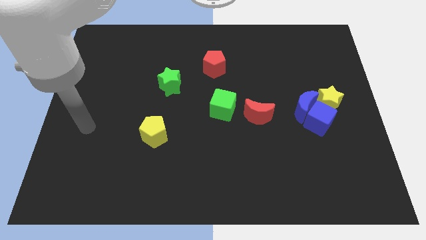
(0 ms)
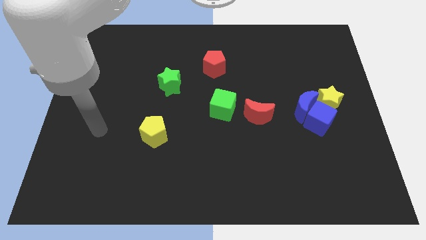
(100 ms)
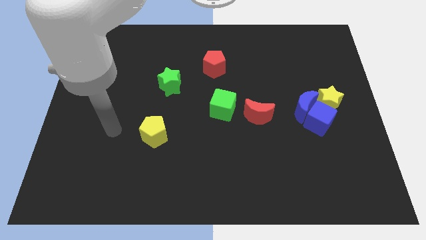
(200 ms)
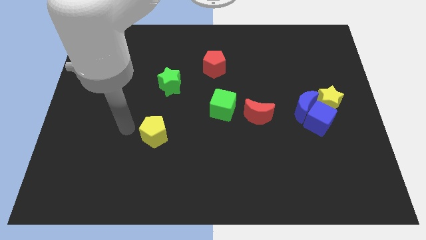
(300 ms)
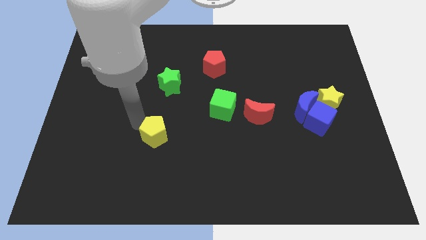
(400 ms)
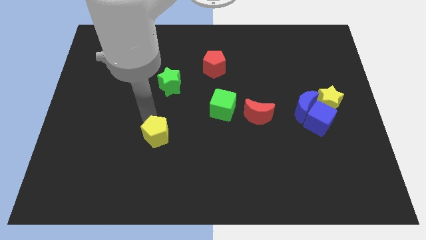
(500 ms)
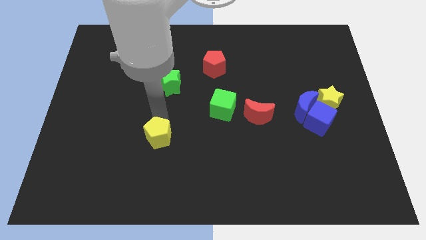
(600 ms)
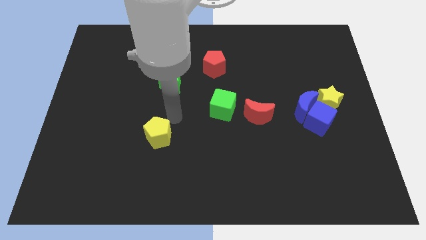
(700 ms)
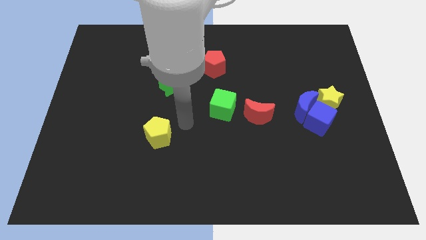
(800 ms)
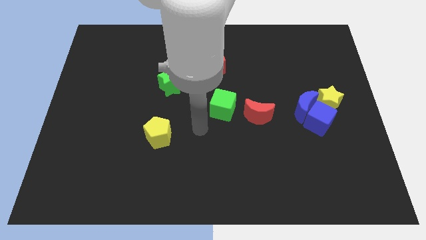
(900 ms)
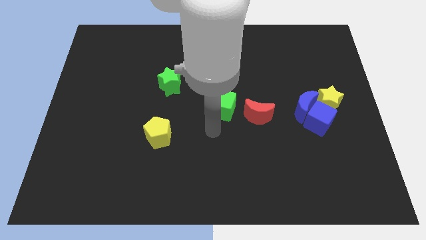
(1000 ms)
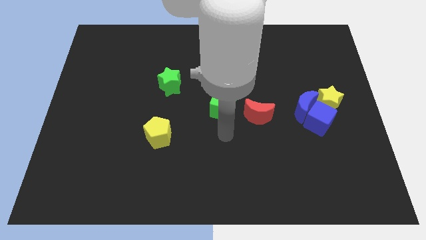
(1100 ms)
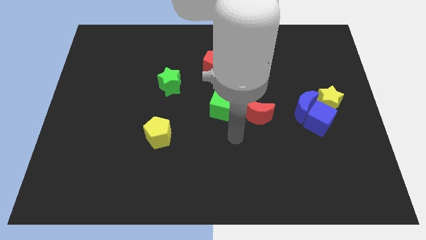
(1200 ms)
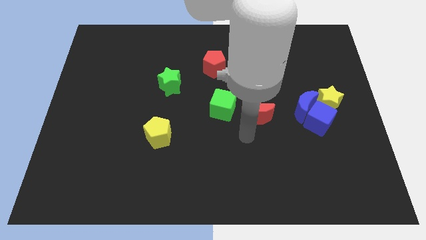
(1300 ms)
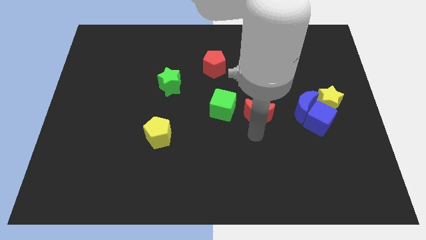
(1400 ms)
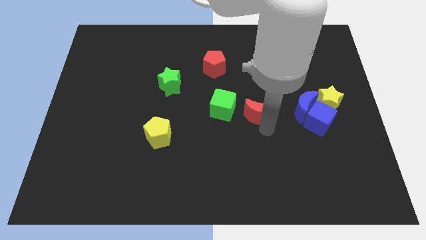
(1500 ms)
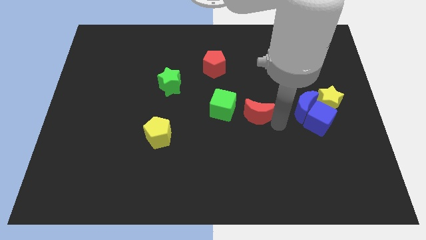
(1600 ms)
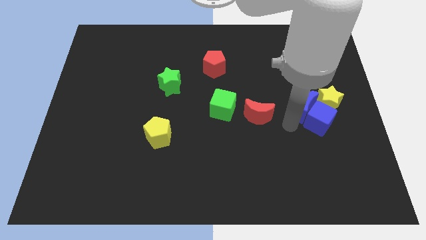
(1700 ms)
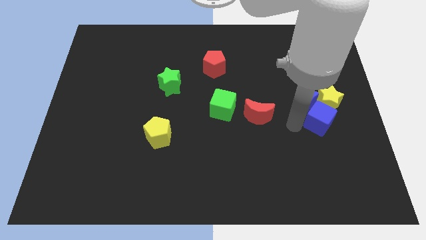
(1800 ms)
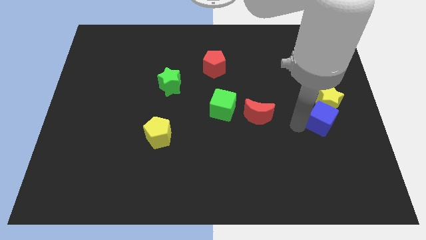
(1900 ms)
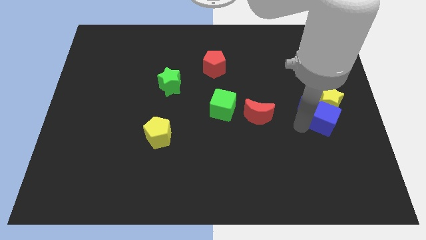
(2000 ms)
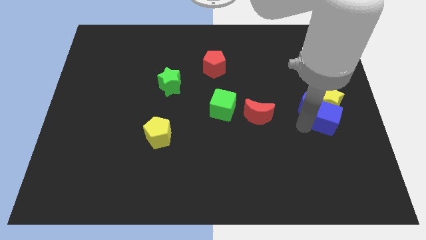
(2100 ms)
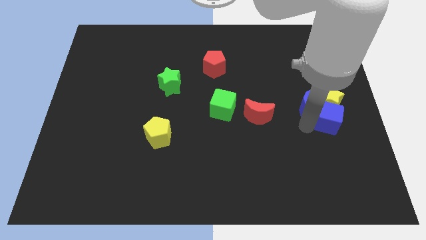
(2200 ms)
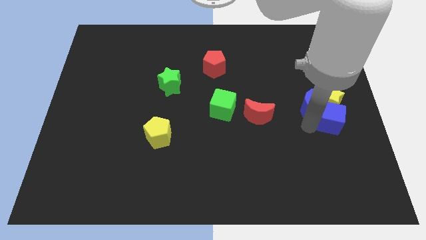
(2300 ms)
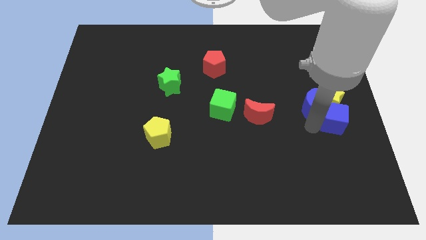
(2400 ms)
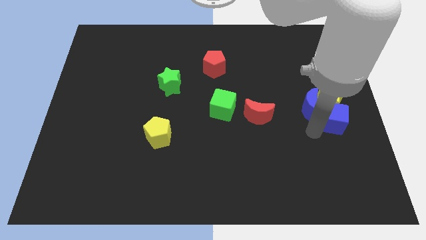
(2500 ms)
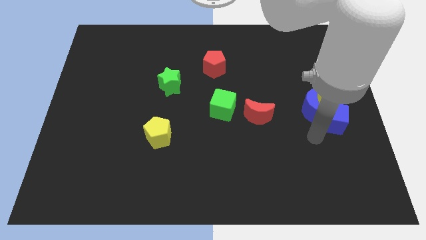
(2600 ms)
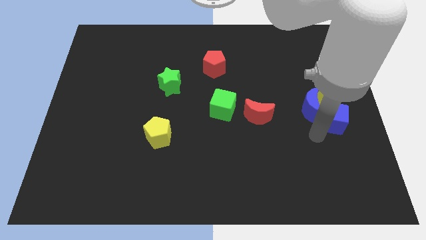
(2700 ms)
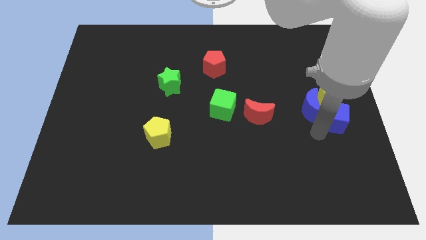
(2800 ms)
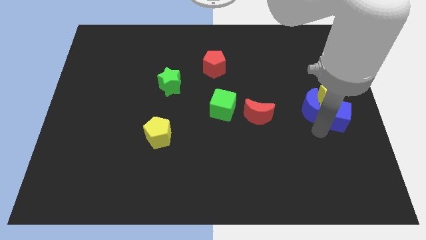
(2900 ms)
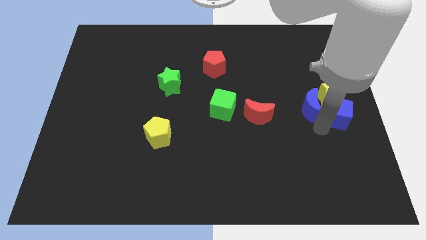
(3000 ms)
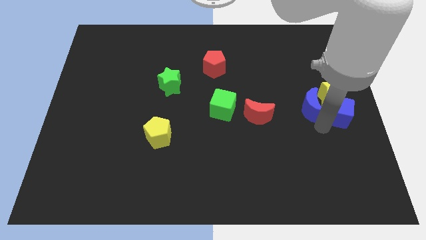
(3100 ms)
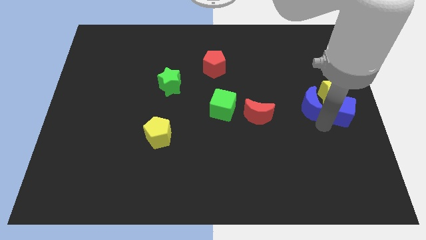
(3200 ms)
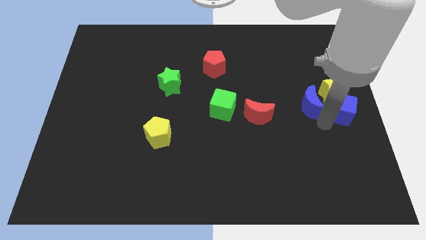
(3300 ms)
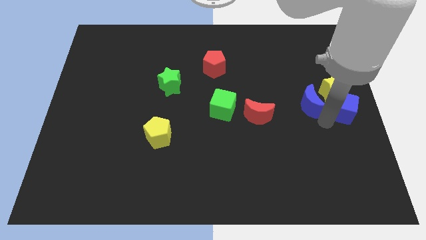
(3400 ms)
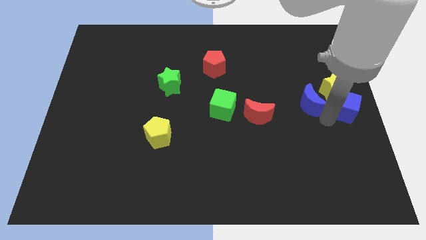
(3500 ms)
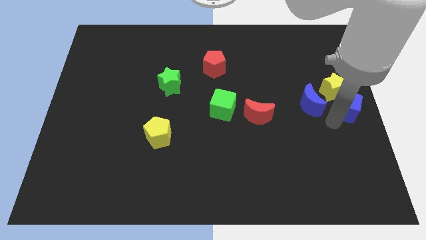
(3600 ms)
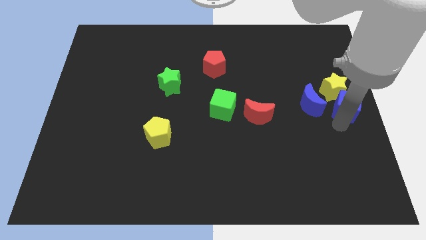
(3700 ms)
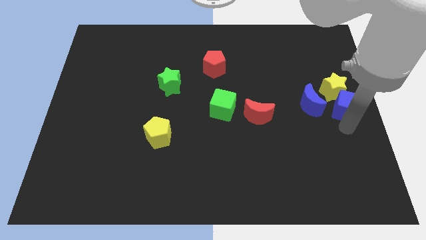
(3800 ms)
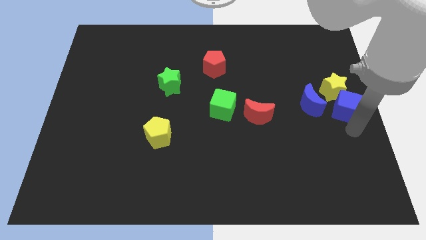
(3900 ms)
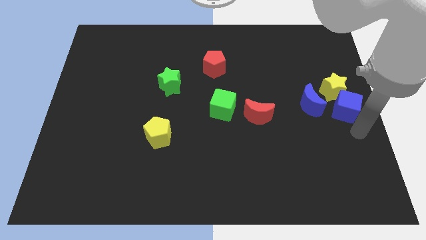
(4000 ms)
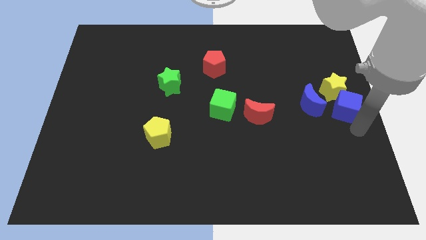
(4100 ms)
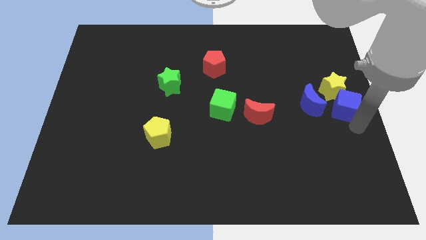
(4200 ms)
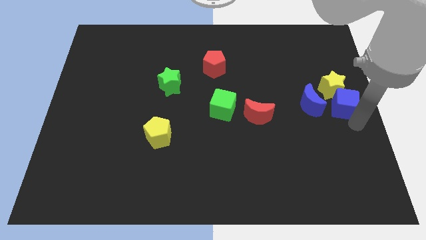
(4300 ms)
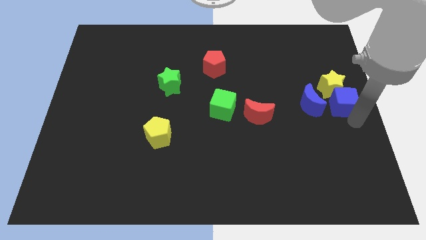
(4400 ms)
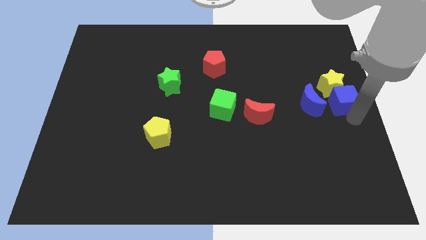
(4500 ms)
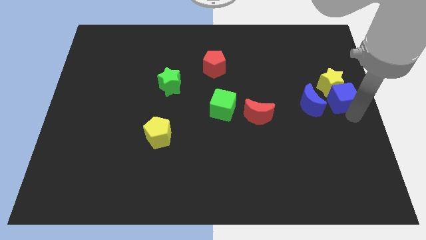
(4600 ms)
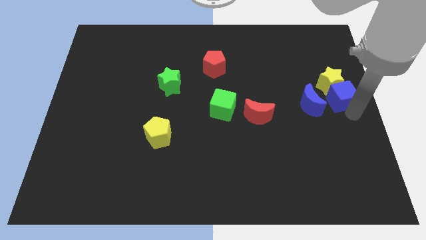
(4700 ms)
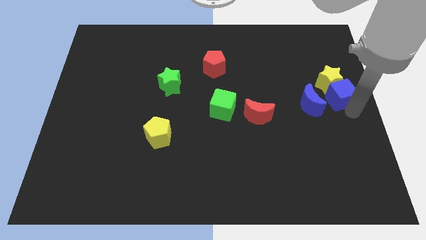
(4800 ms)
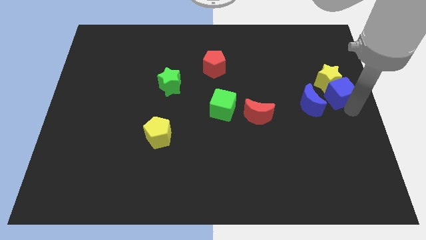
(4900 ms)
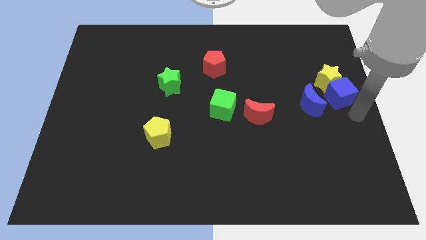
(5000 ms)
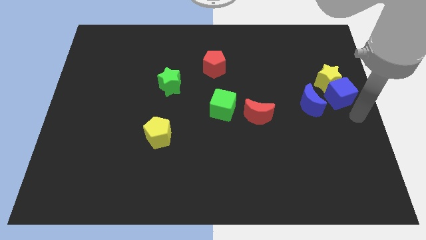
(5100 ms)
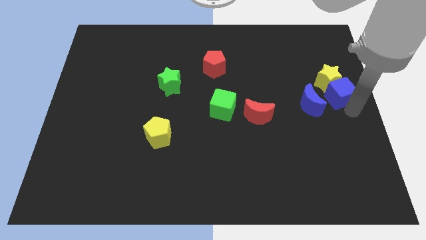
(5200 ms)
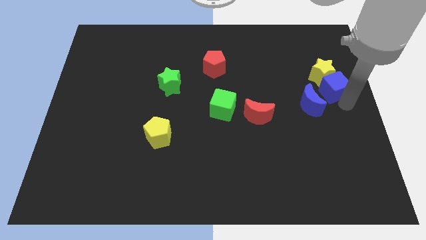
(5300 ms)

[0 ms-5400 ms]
push the blue cube up a bit

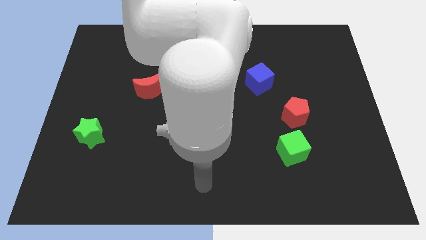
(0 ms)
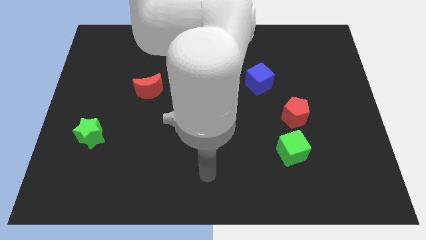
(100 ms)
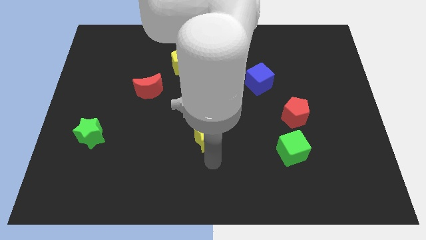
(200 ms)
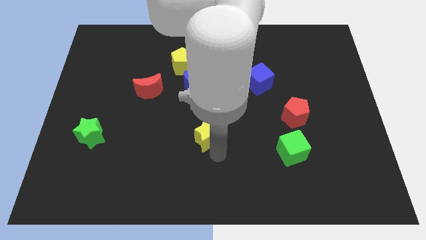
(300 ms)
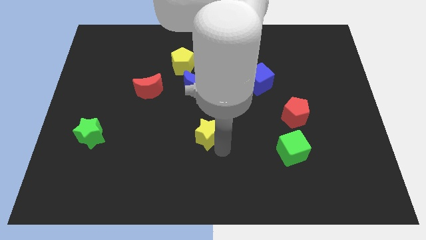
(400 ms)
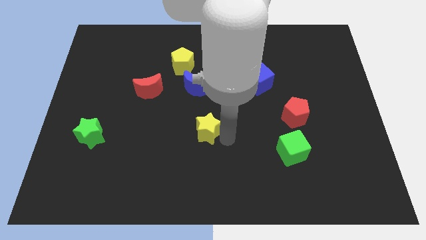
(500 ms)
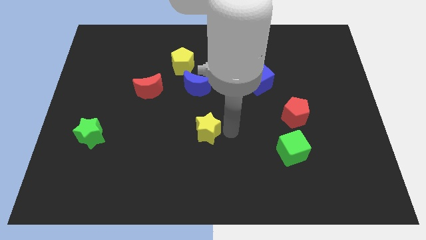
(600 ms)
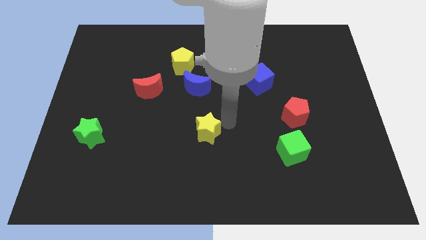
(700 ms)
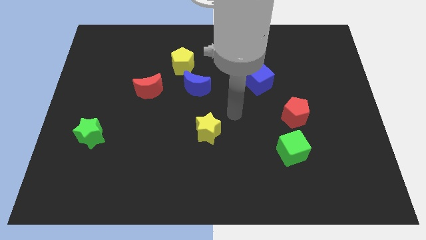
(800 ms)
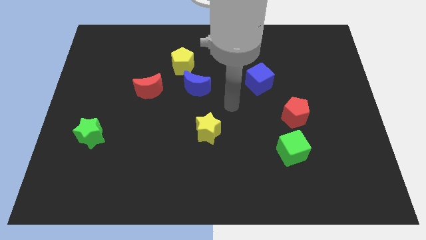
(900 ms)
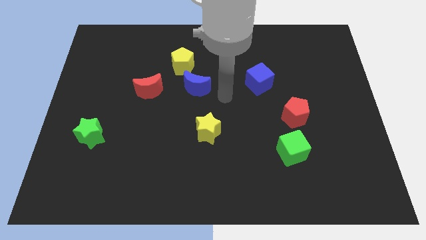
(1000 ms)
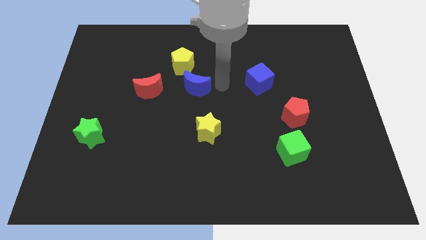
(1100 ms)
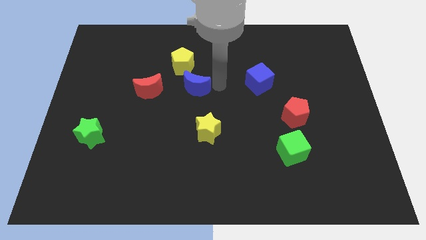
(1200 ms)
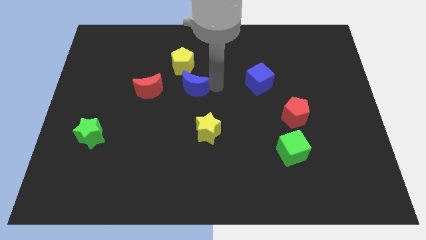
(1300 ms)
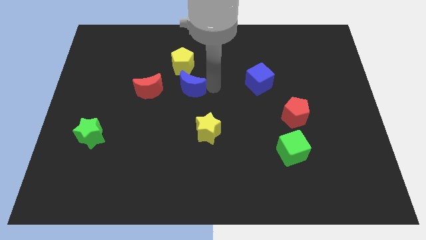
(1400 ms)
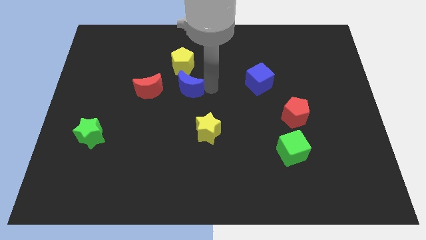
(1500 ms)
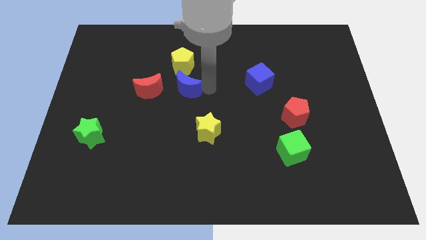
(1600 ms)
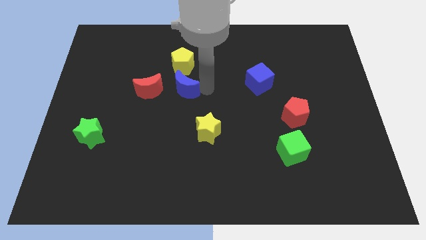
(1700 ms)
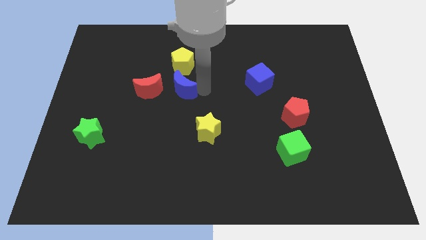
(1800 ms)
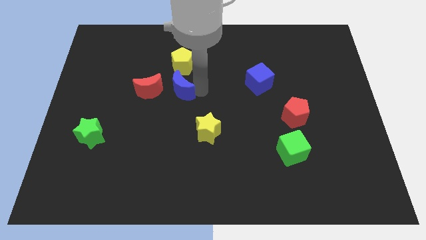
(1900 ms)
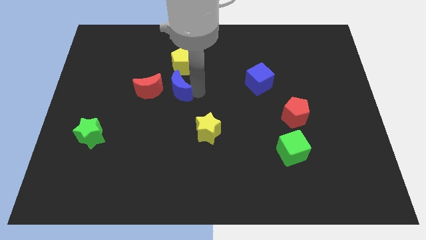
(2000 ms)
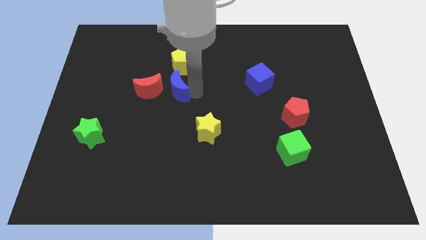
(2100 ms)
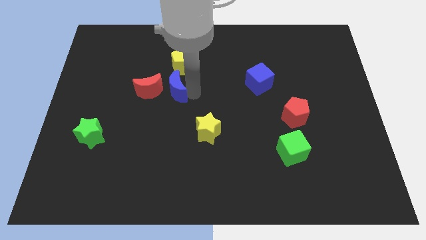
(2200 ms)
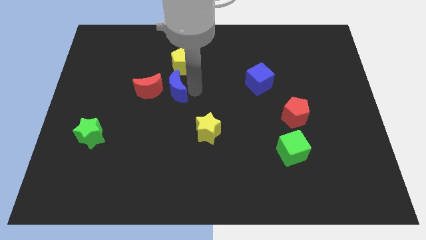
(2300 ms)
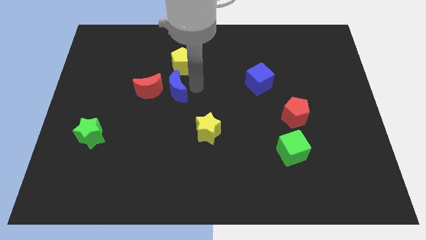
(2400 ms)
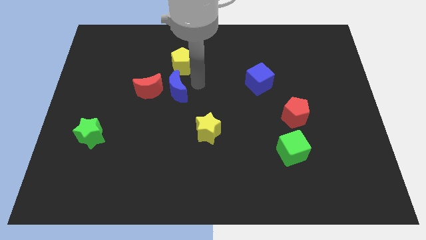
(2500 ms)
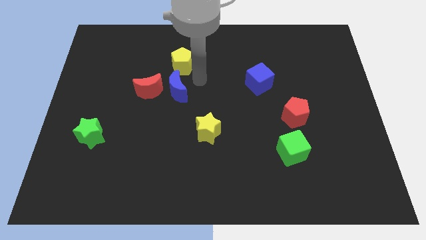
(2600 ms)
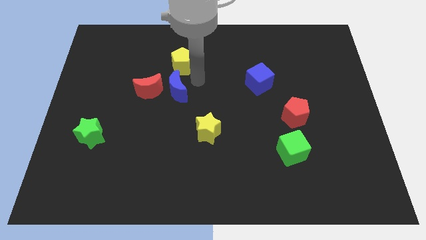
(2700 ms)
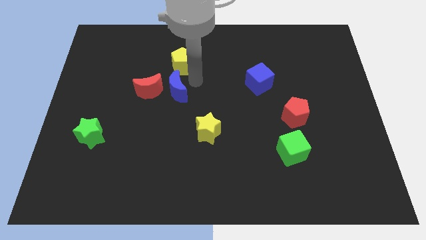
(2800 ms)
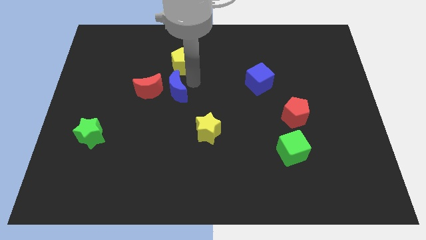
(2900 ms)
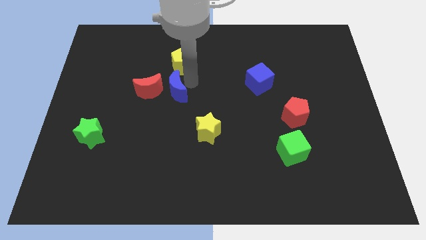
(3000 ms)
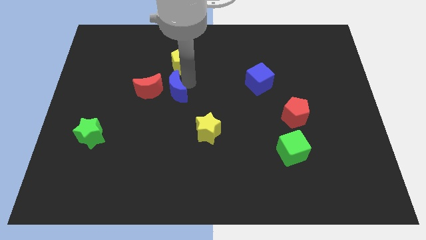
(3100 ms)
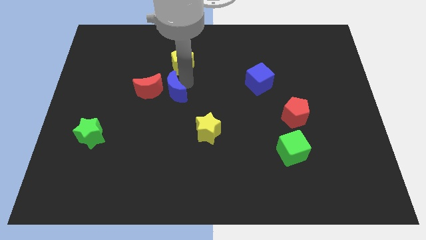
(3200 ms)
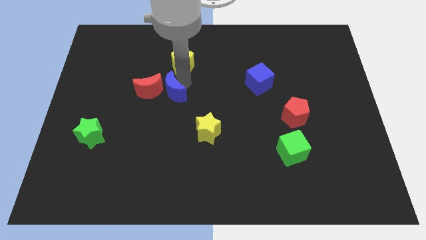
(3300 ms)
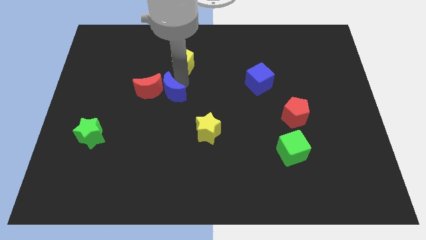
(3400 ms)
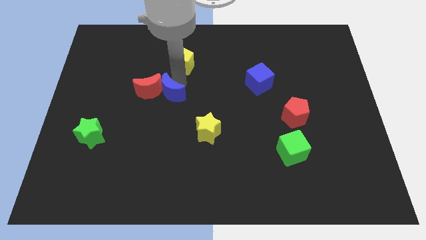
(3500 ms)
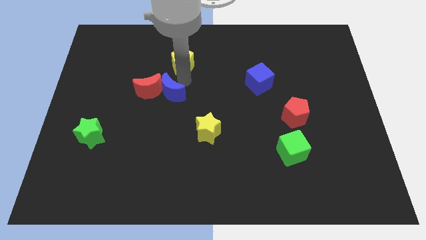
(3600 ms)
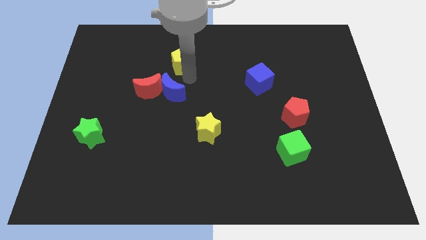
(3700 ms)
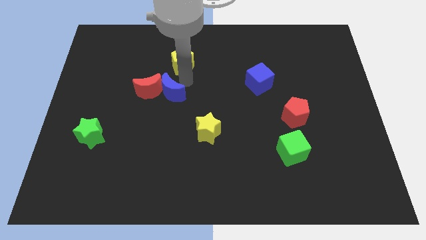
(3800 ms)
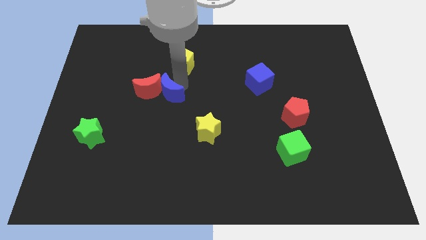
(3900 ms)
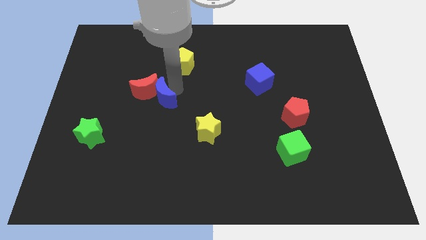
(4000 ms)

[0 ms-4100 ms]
slide the blue moon down and left diagonally a little
